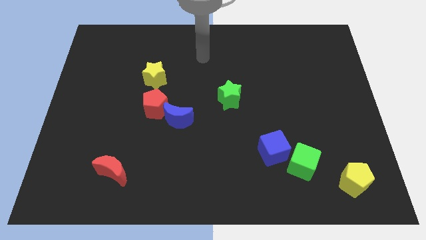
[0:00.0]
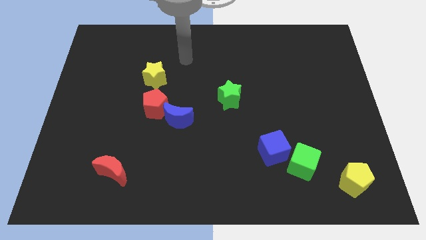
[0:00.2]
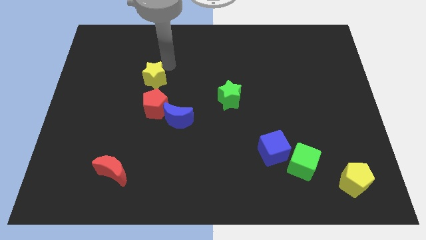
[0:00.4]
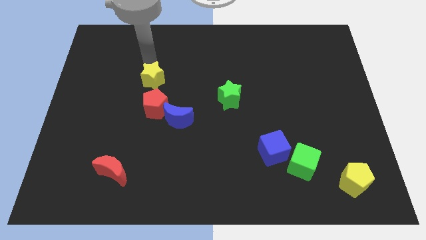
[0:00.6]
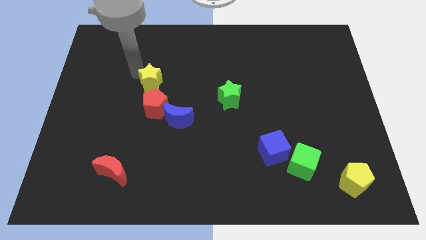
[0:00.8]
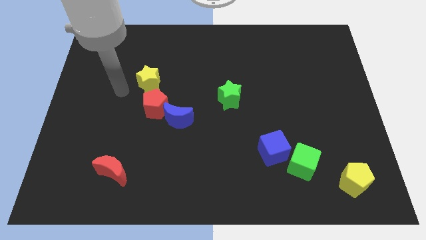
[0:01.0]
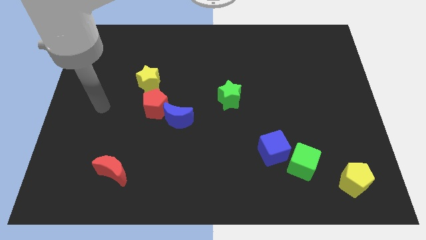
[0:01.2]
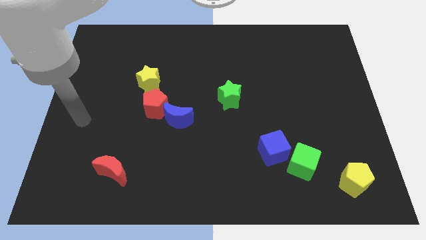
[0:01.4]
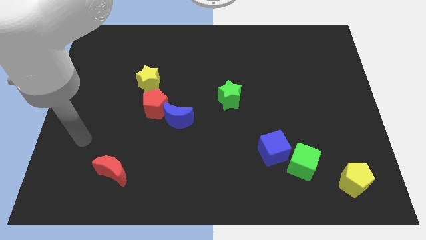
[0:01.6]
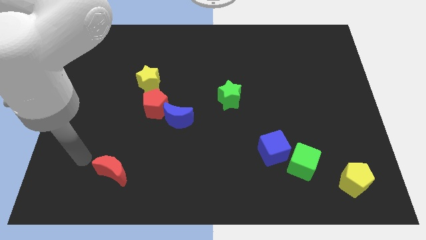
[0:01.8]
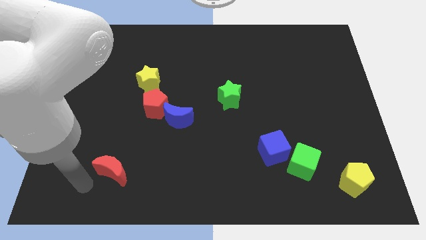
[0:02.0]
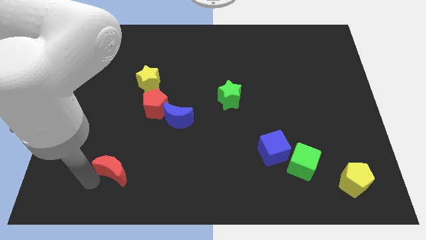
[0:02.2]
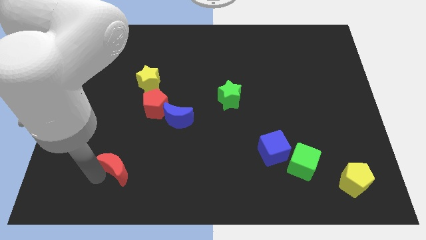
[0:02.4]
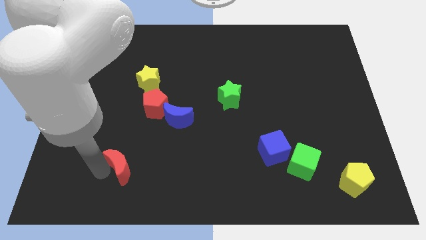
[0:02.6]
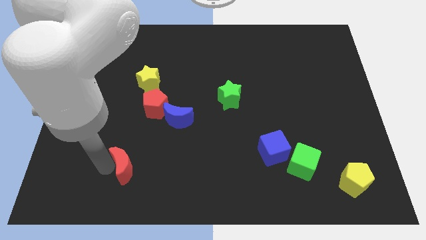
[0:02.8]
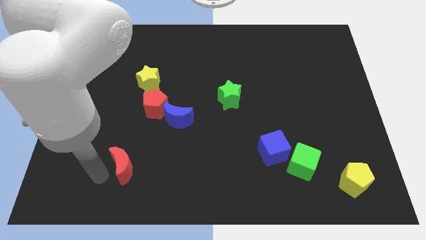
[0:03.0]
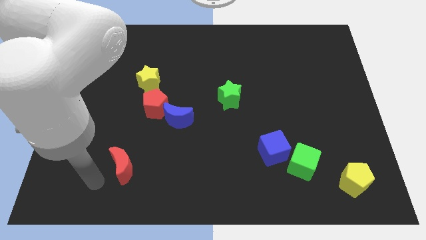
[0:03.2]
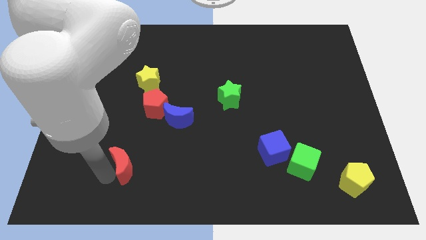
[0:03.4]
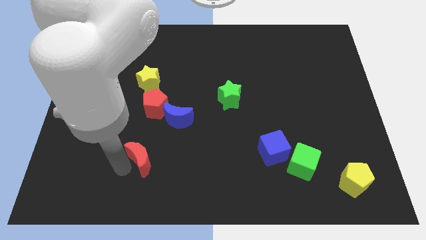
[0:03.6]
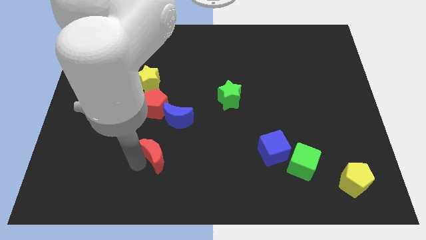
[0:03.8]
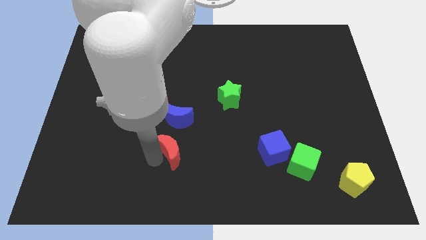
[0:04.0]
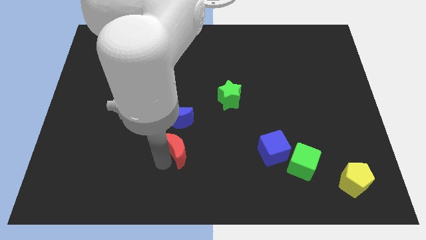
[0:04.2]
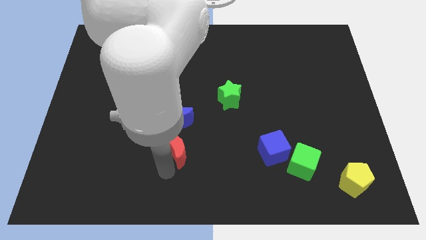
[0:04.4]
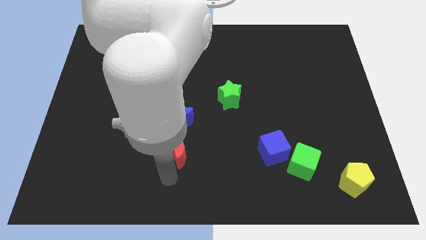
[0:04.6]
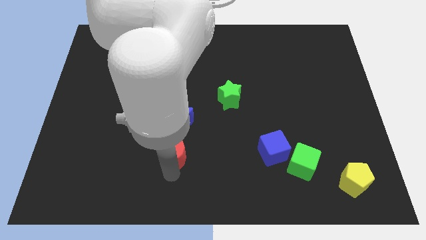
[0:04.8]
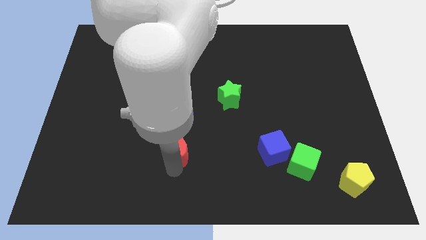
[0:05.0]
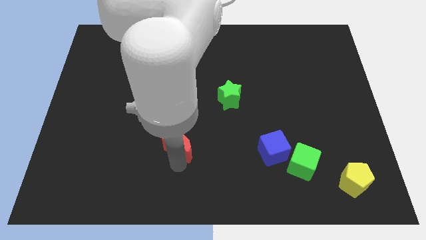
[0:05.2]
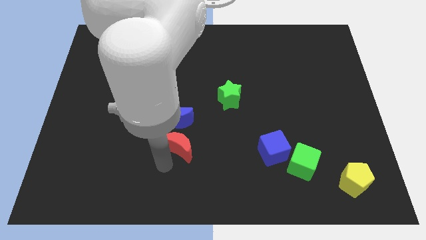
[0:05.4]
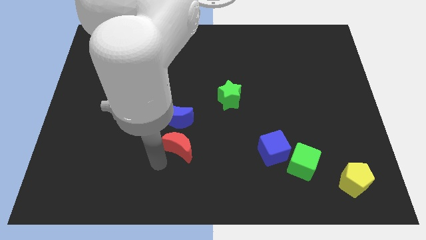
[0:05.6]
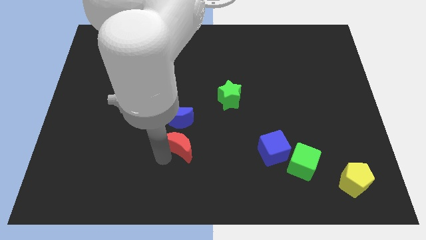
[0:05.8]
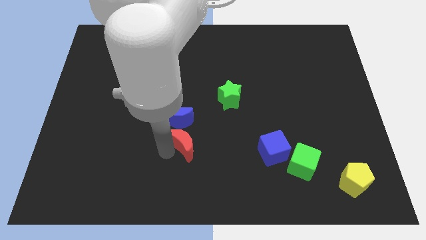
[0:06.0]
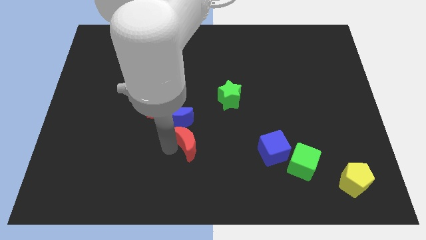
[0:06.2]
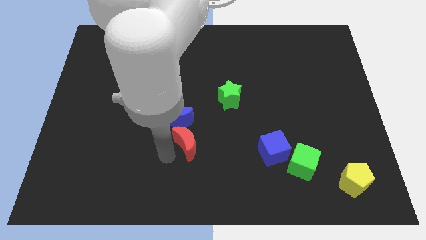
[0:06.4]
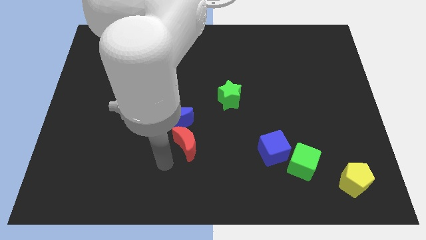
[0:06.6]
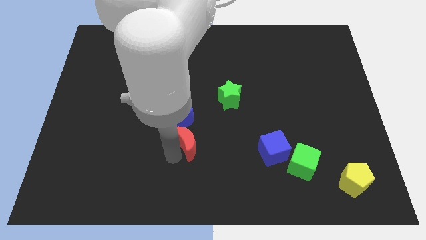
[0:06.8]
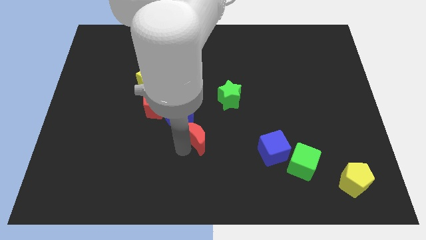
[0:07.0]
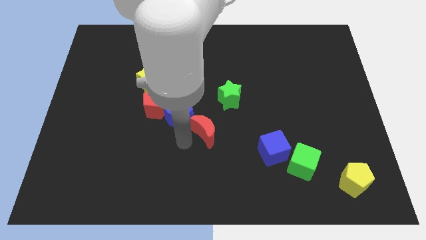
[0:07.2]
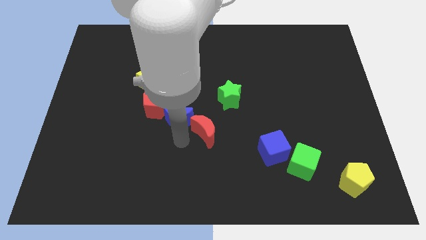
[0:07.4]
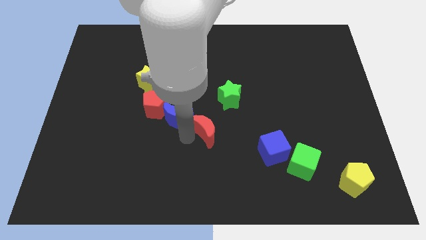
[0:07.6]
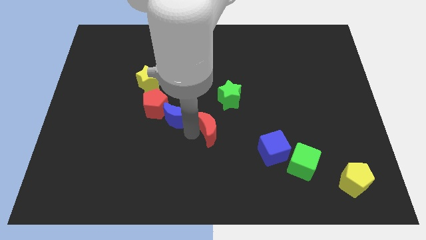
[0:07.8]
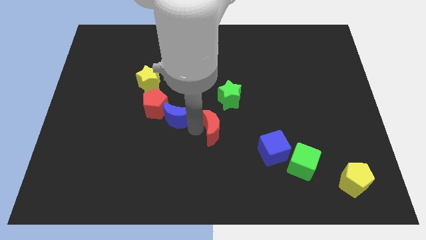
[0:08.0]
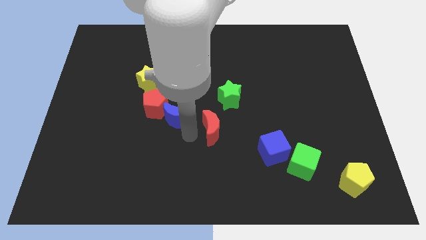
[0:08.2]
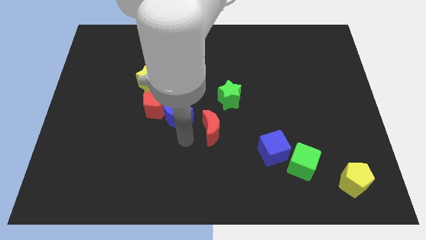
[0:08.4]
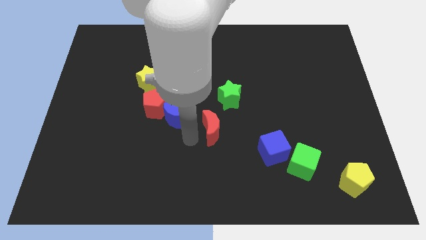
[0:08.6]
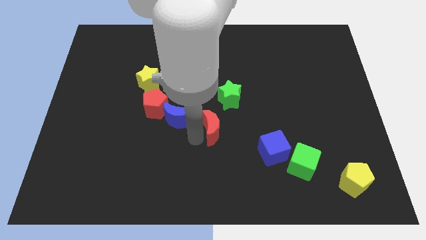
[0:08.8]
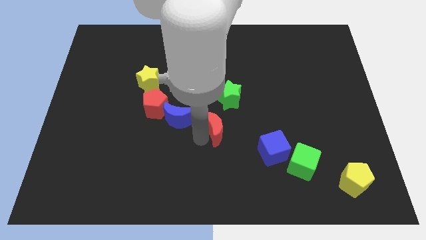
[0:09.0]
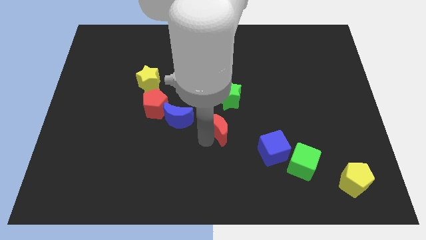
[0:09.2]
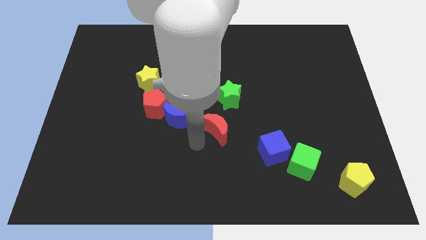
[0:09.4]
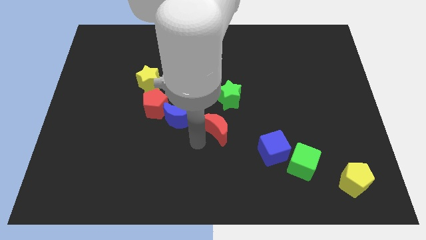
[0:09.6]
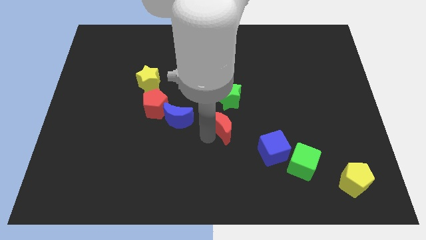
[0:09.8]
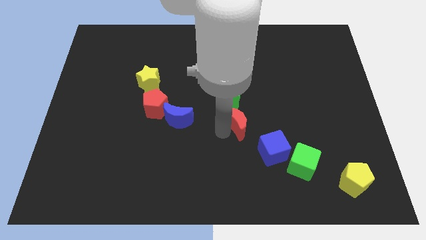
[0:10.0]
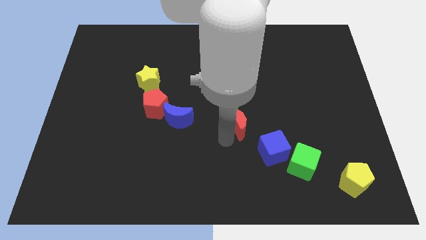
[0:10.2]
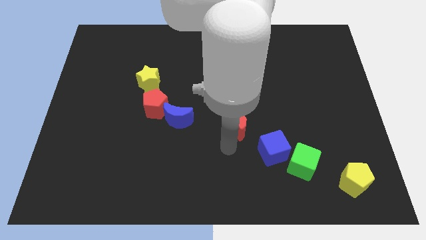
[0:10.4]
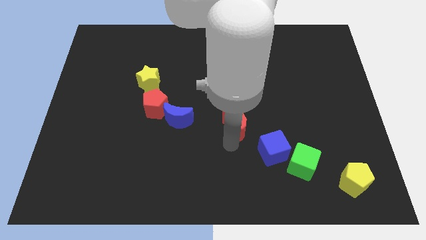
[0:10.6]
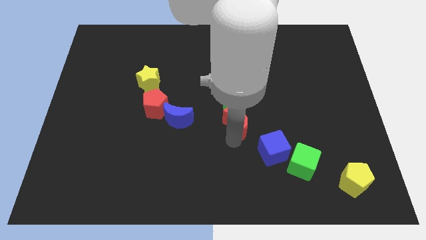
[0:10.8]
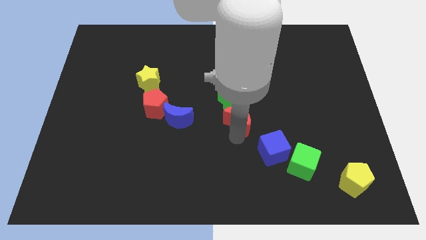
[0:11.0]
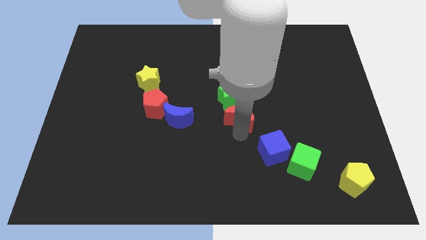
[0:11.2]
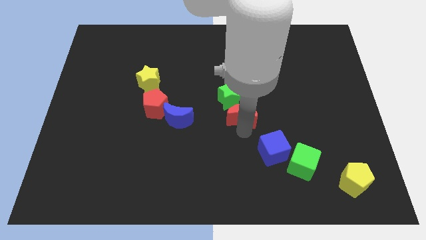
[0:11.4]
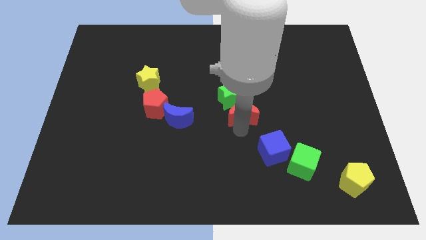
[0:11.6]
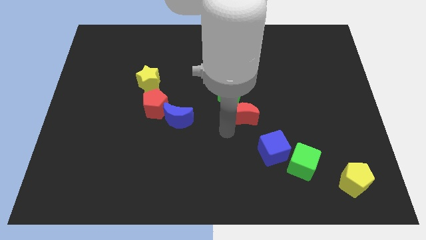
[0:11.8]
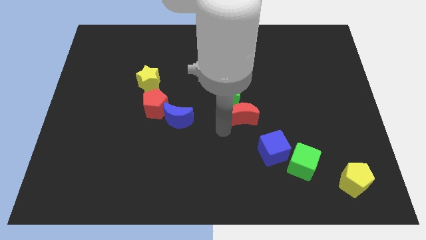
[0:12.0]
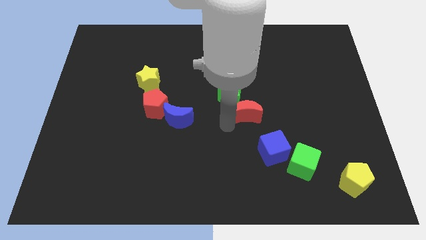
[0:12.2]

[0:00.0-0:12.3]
move the red moon just right of the green star

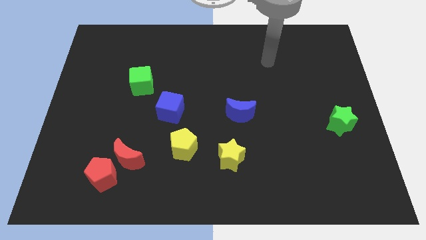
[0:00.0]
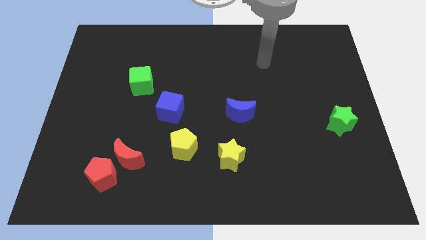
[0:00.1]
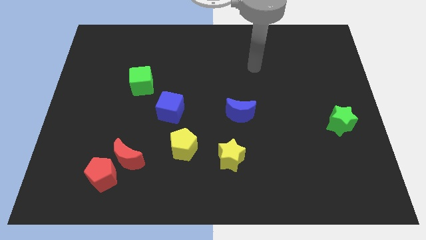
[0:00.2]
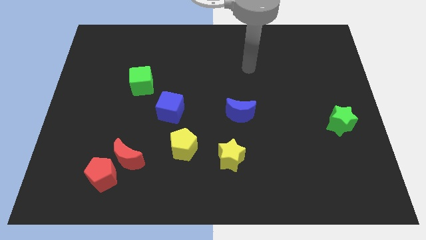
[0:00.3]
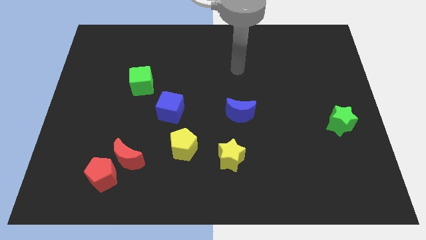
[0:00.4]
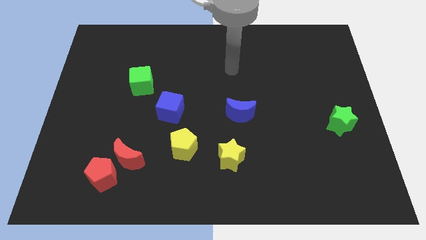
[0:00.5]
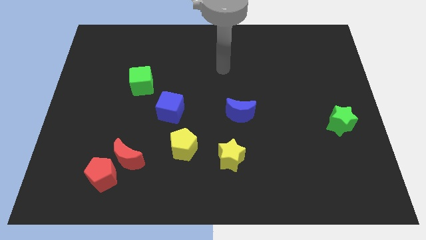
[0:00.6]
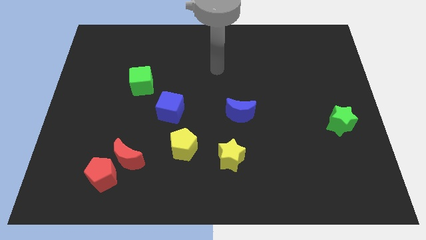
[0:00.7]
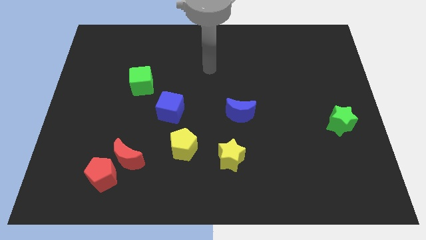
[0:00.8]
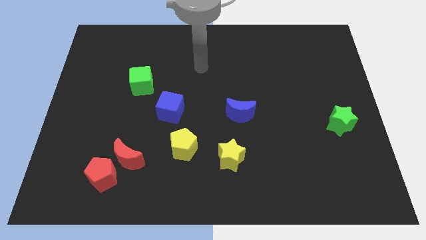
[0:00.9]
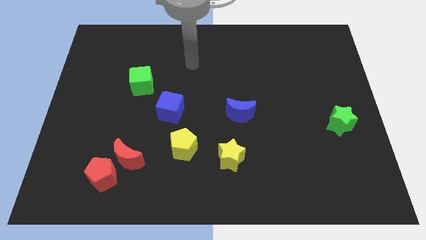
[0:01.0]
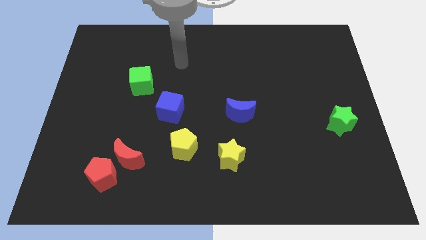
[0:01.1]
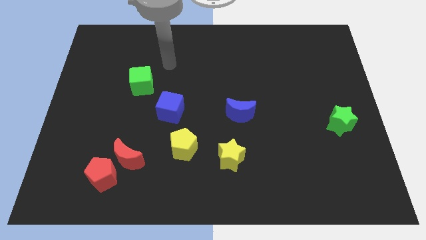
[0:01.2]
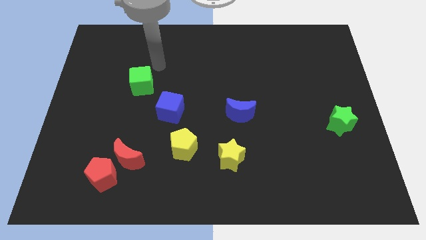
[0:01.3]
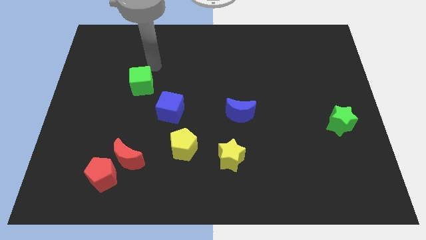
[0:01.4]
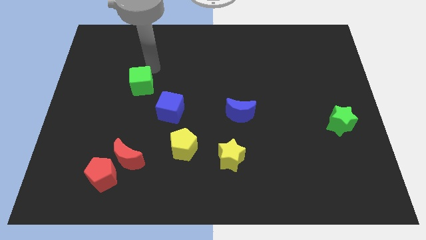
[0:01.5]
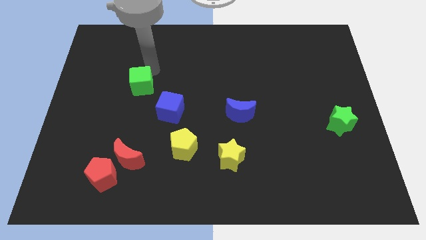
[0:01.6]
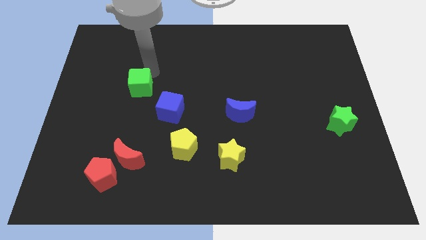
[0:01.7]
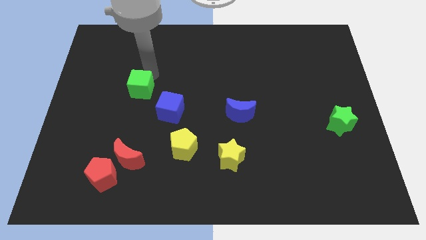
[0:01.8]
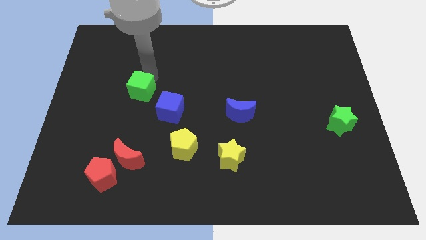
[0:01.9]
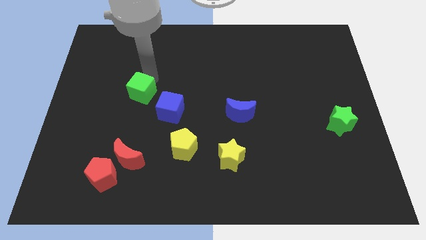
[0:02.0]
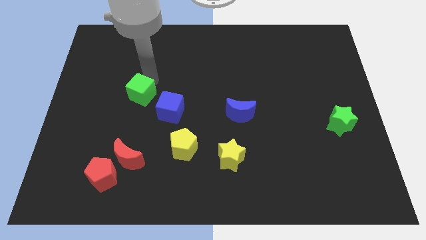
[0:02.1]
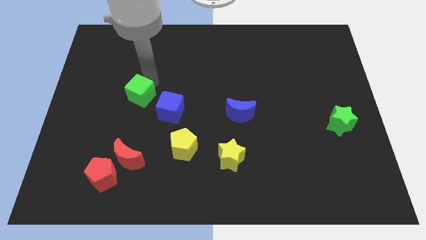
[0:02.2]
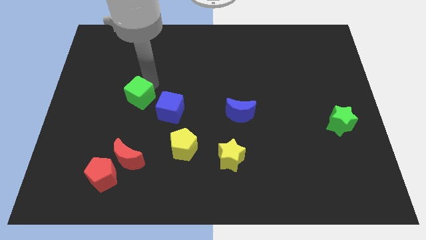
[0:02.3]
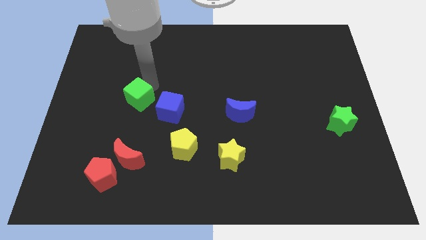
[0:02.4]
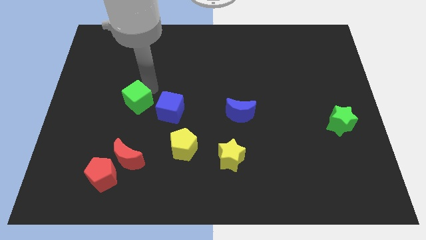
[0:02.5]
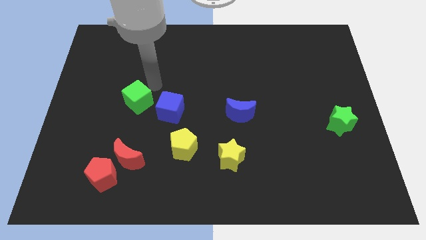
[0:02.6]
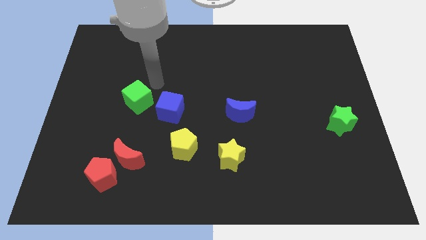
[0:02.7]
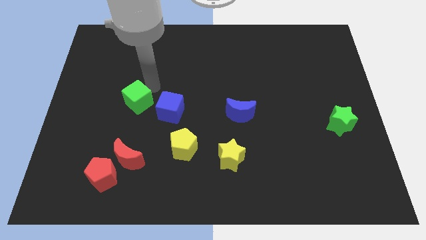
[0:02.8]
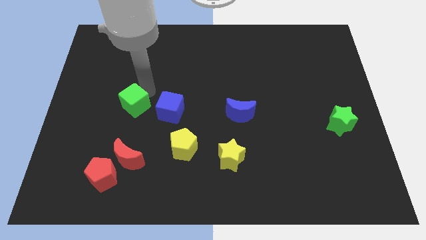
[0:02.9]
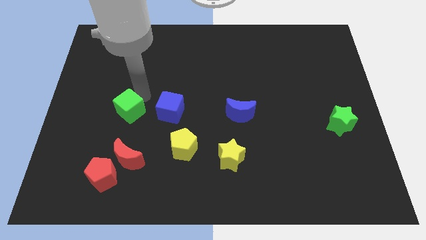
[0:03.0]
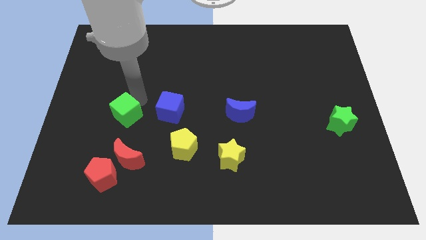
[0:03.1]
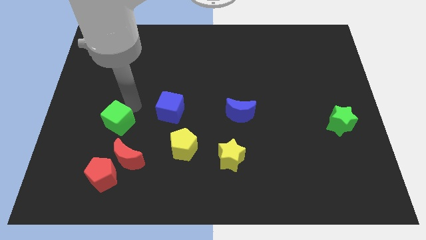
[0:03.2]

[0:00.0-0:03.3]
put the green cube to the top left of the red moon
